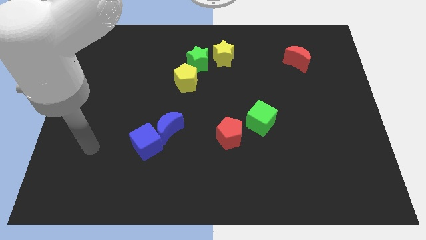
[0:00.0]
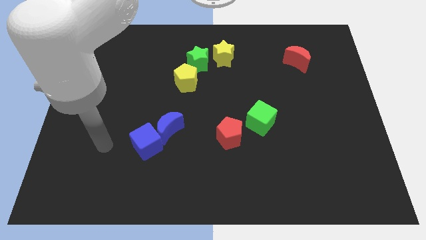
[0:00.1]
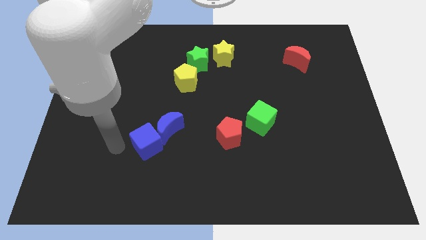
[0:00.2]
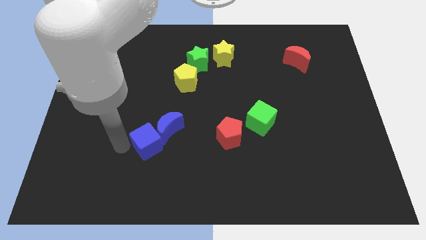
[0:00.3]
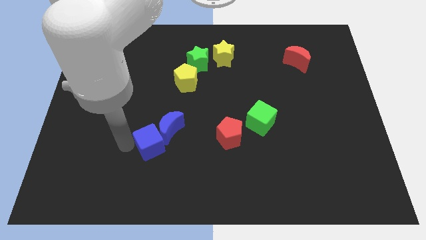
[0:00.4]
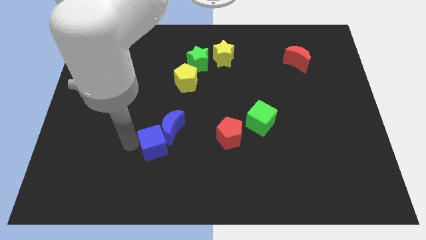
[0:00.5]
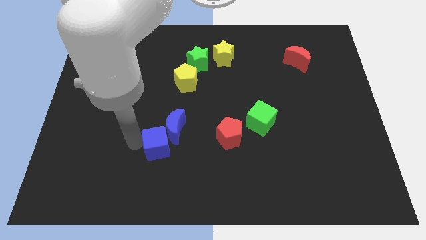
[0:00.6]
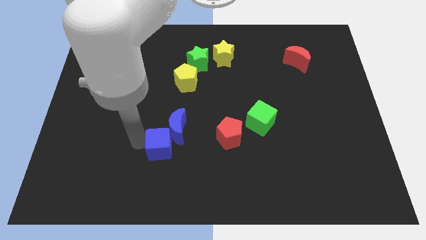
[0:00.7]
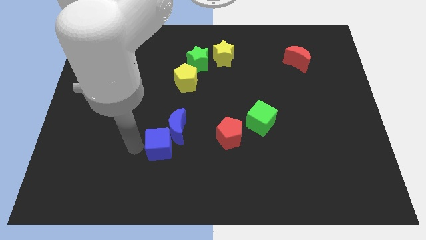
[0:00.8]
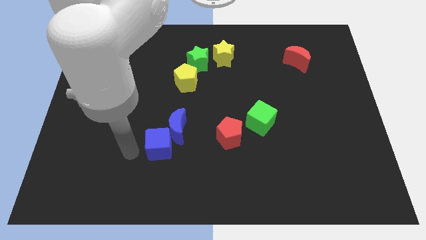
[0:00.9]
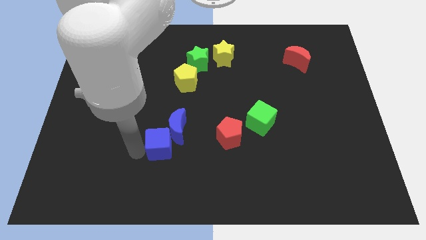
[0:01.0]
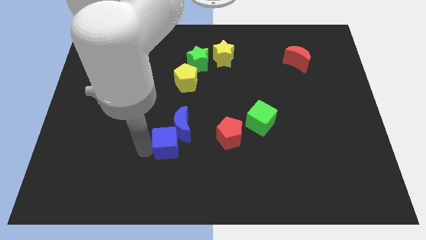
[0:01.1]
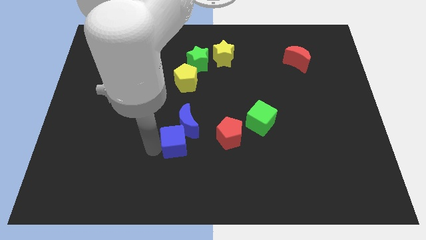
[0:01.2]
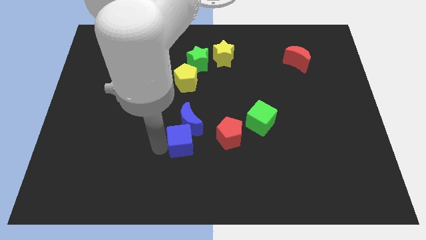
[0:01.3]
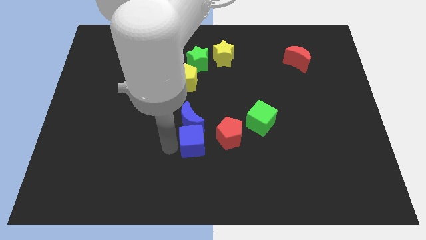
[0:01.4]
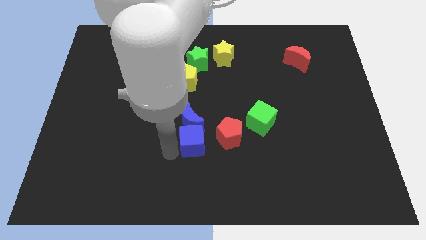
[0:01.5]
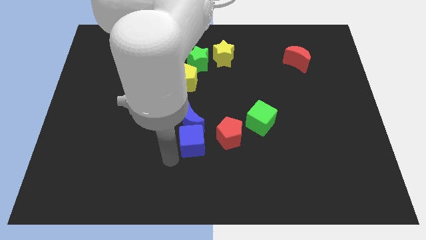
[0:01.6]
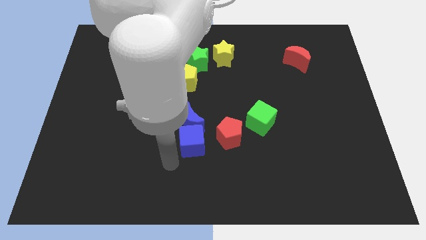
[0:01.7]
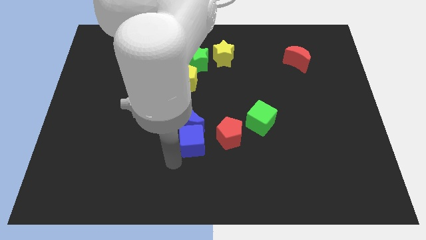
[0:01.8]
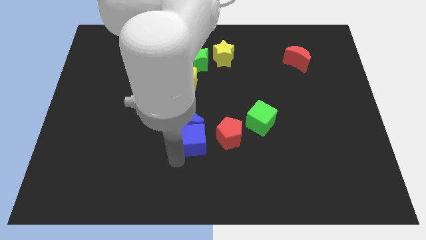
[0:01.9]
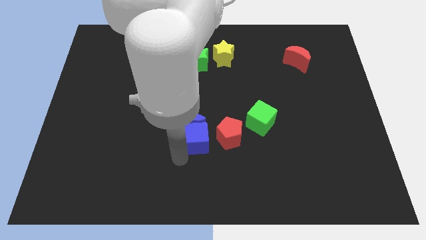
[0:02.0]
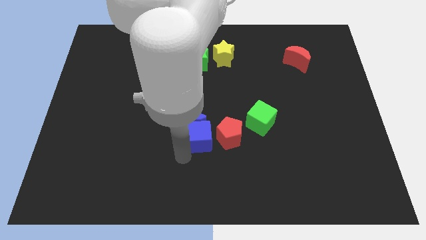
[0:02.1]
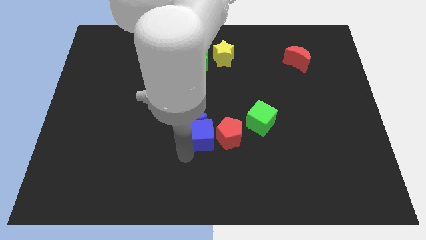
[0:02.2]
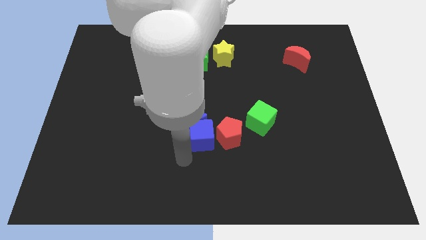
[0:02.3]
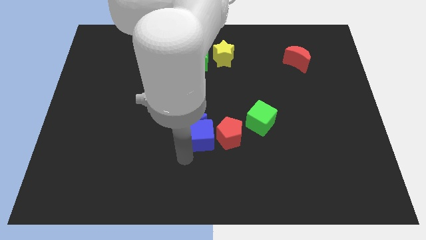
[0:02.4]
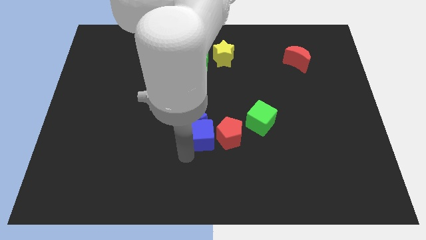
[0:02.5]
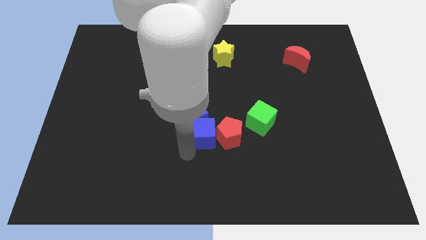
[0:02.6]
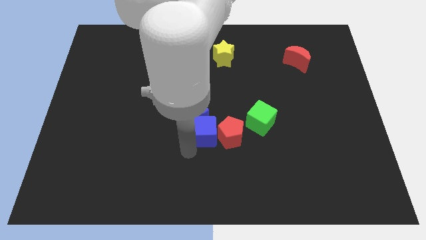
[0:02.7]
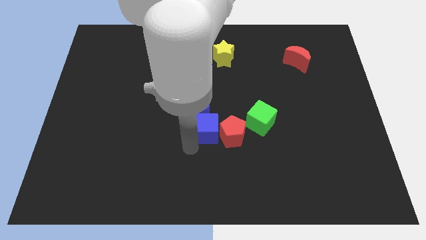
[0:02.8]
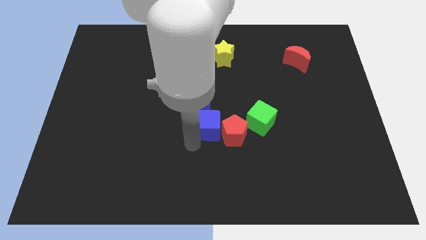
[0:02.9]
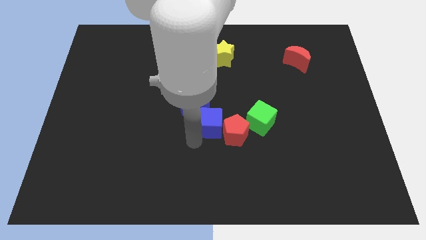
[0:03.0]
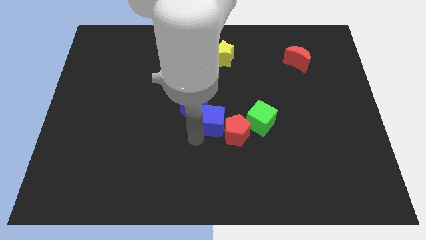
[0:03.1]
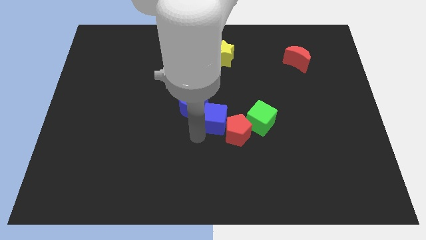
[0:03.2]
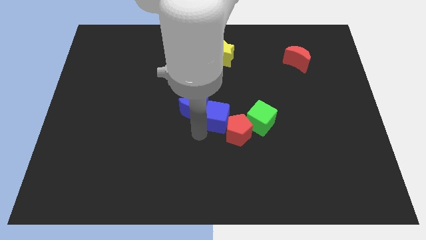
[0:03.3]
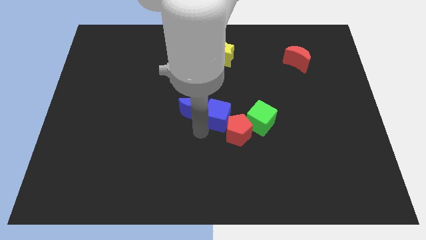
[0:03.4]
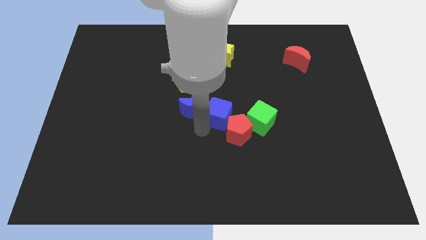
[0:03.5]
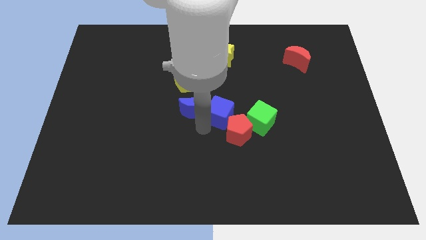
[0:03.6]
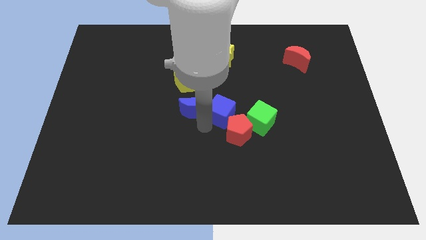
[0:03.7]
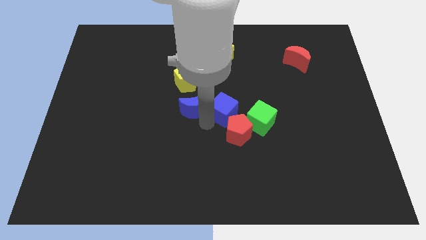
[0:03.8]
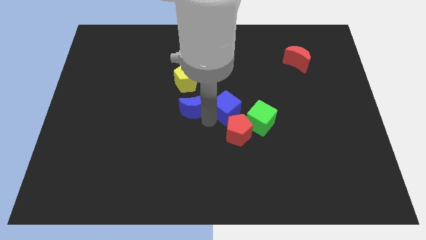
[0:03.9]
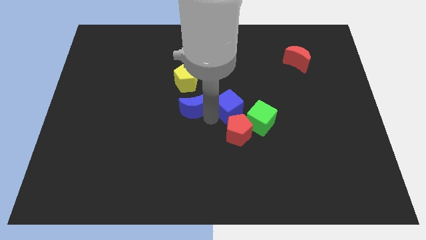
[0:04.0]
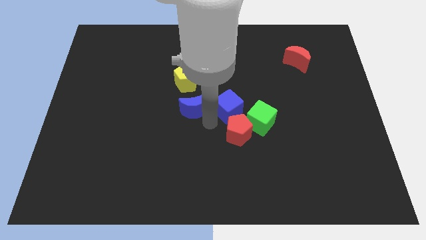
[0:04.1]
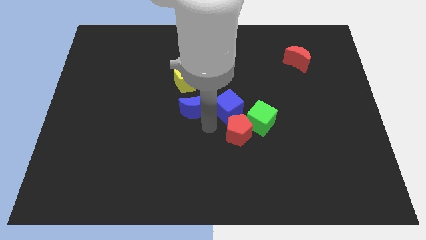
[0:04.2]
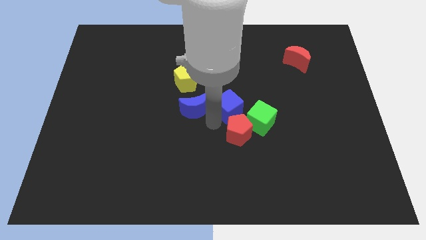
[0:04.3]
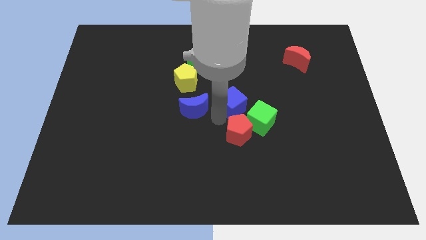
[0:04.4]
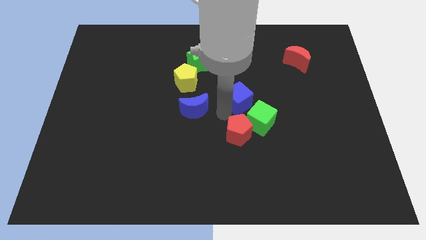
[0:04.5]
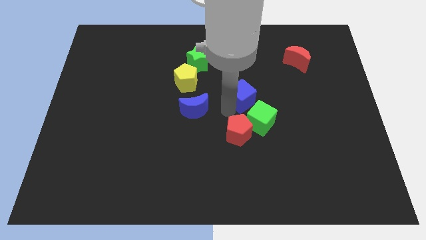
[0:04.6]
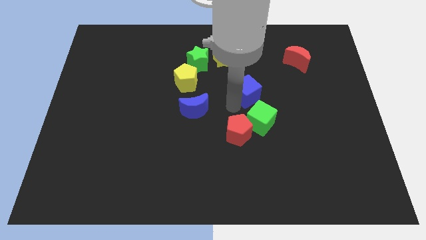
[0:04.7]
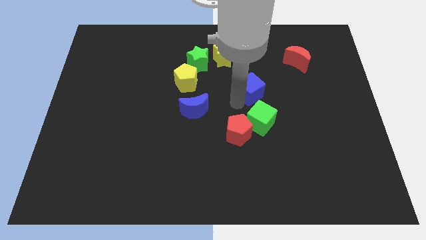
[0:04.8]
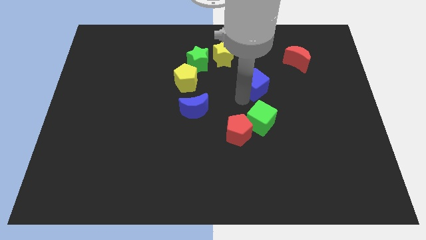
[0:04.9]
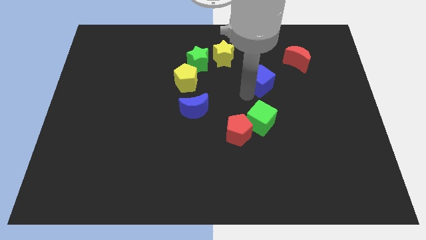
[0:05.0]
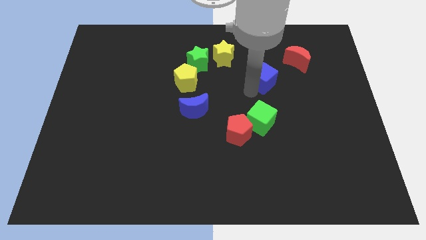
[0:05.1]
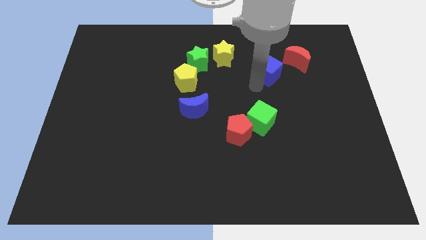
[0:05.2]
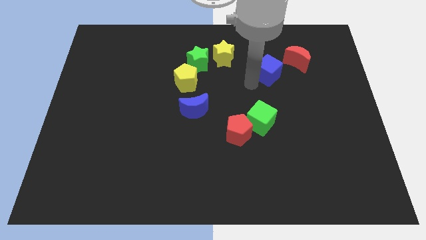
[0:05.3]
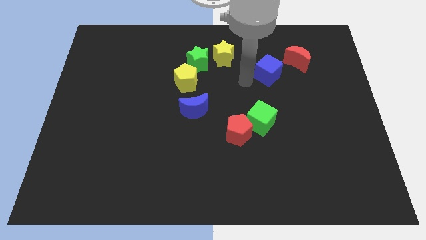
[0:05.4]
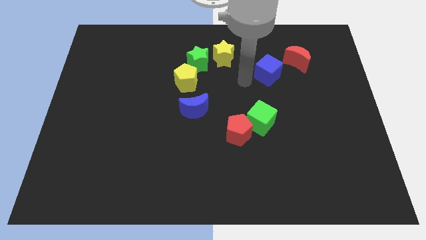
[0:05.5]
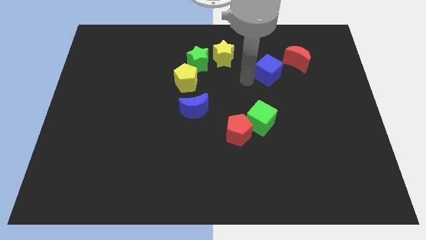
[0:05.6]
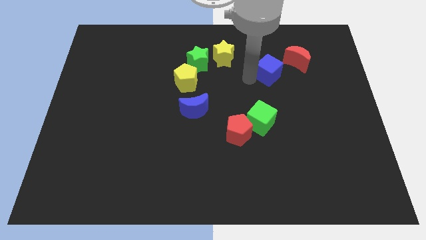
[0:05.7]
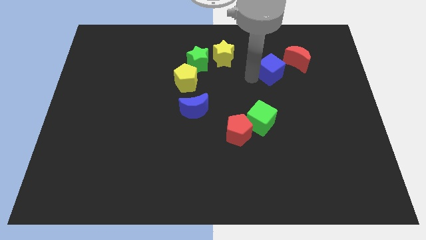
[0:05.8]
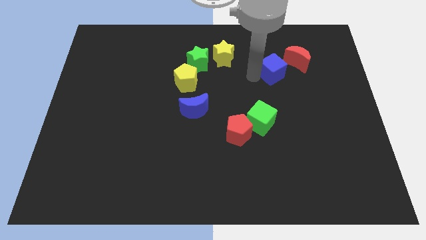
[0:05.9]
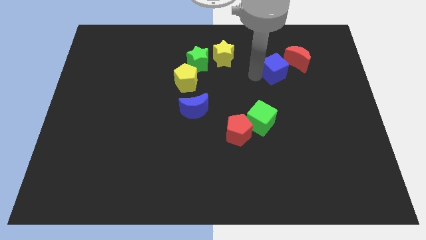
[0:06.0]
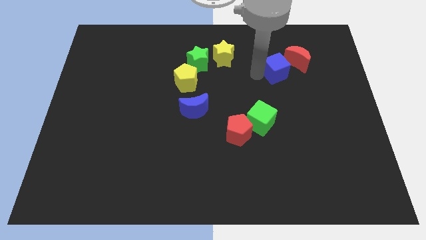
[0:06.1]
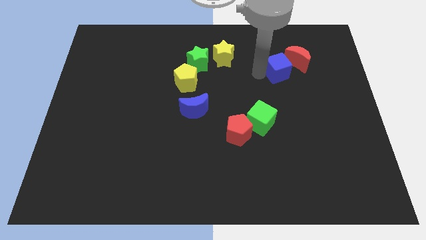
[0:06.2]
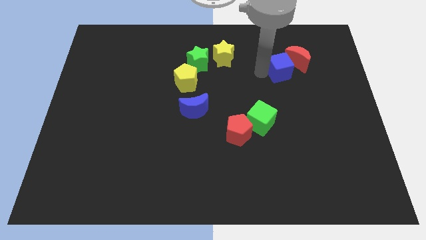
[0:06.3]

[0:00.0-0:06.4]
put the blue cube next to the red moon

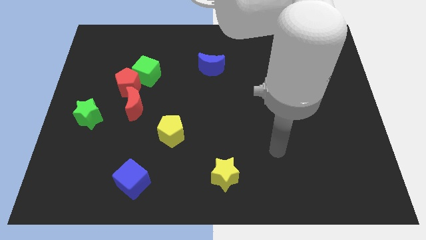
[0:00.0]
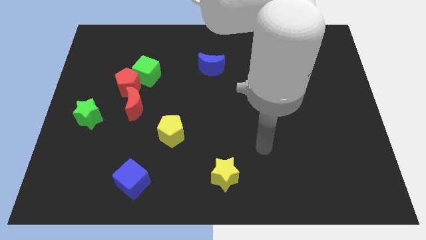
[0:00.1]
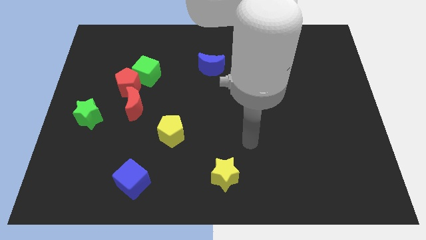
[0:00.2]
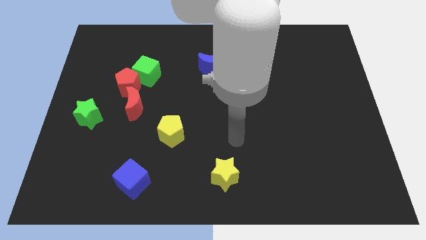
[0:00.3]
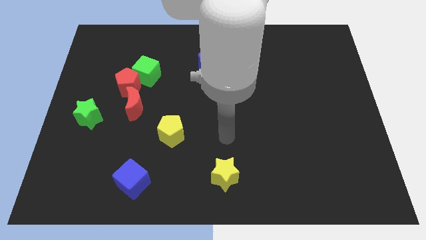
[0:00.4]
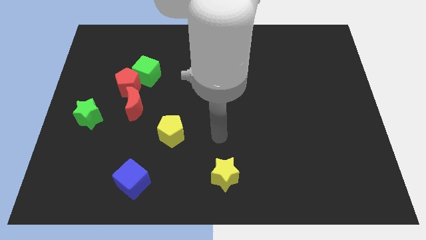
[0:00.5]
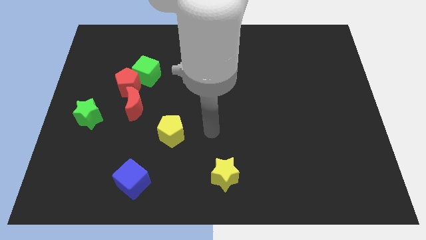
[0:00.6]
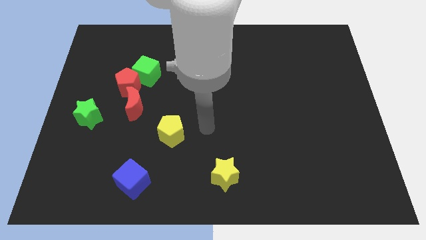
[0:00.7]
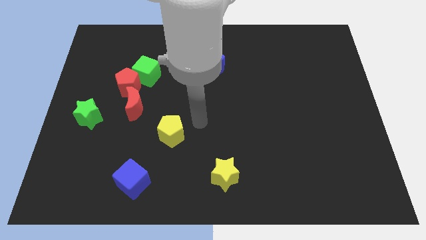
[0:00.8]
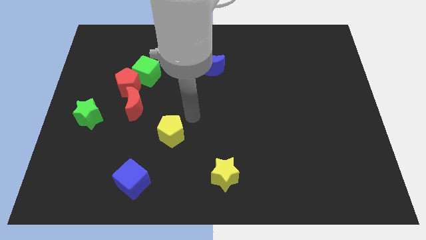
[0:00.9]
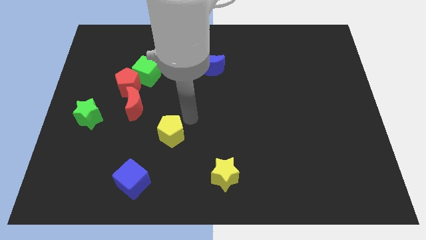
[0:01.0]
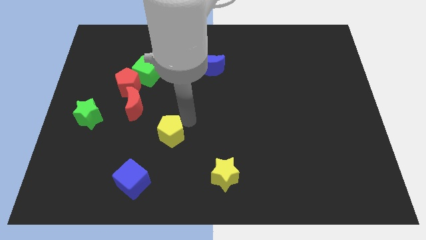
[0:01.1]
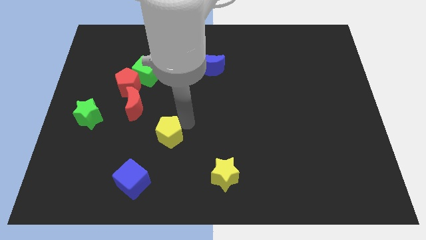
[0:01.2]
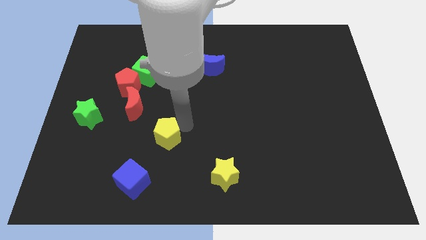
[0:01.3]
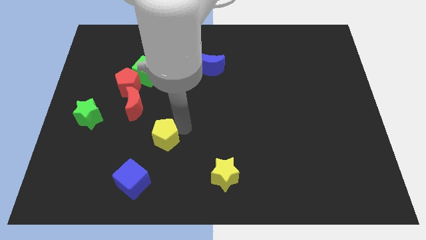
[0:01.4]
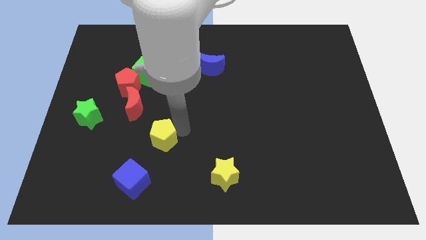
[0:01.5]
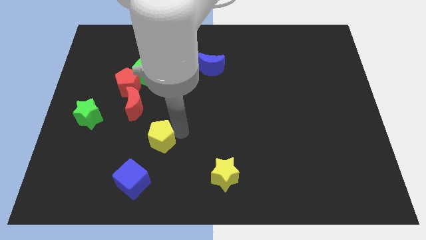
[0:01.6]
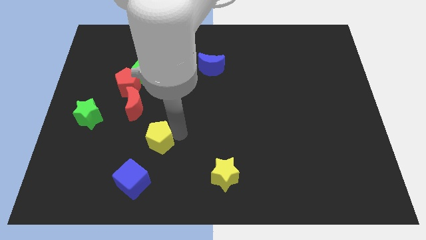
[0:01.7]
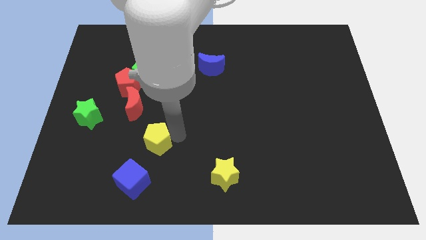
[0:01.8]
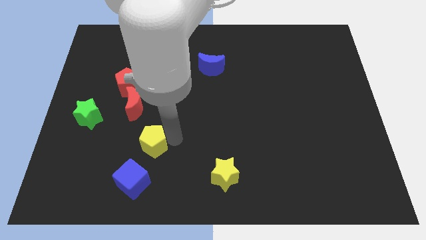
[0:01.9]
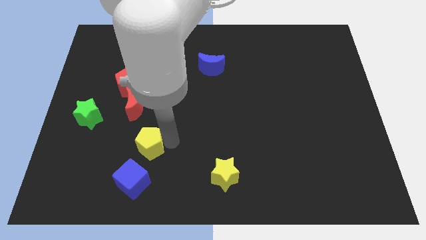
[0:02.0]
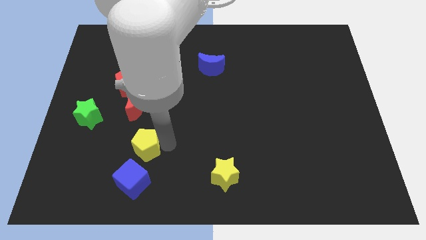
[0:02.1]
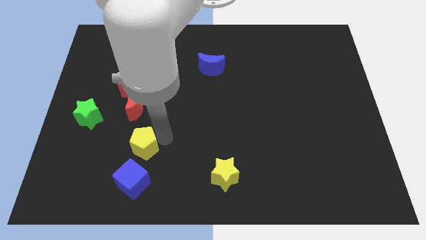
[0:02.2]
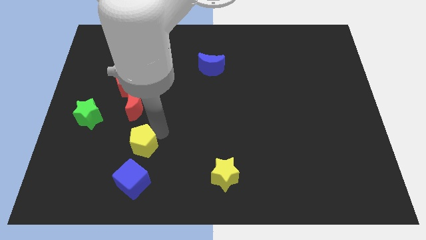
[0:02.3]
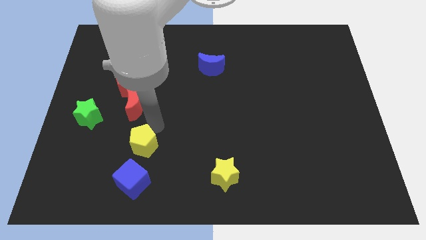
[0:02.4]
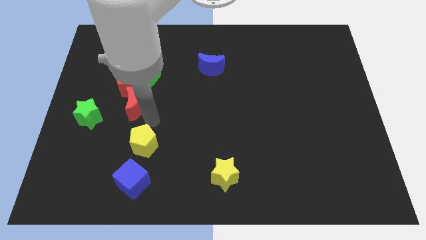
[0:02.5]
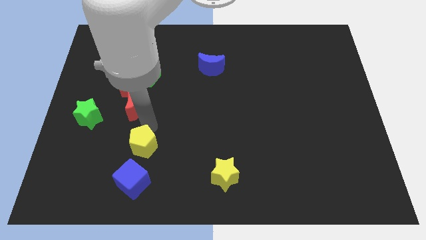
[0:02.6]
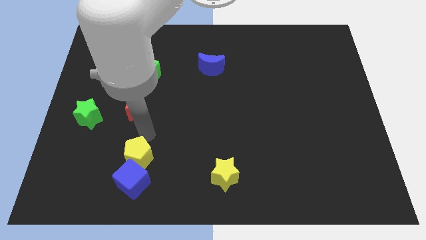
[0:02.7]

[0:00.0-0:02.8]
put the yellow pentagon to the blue cube
